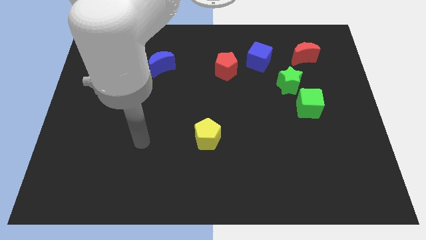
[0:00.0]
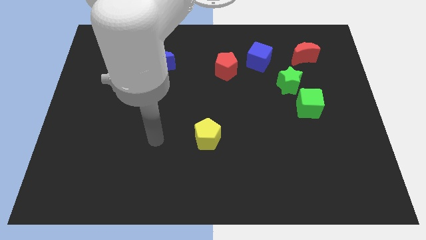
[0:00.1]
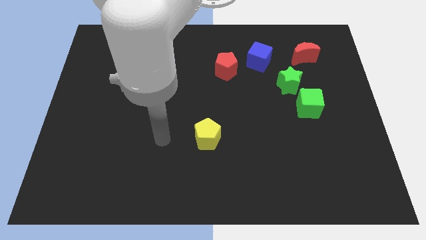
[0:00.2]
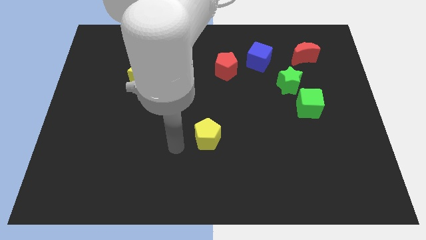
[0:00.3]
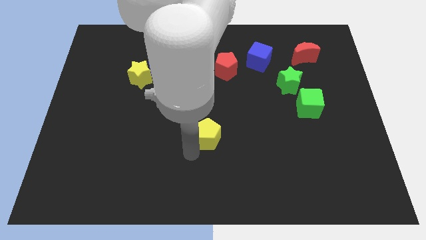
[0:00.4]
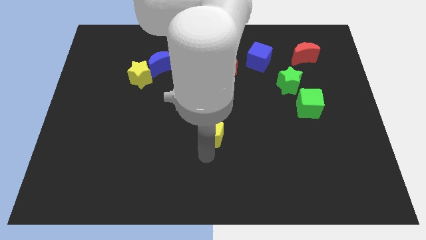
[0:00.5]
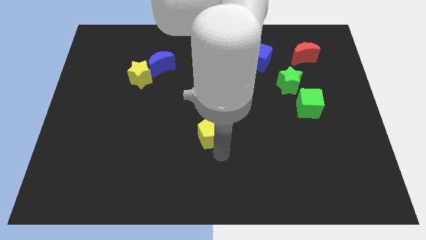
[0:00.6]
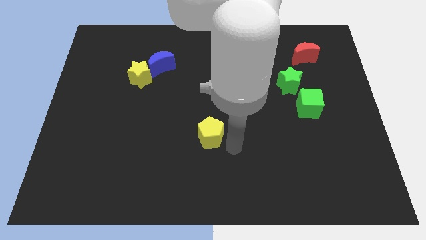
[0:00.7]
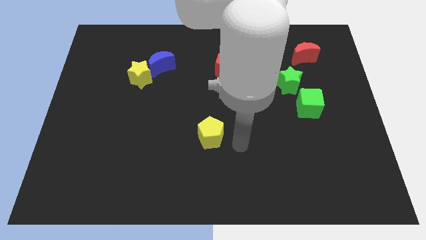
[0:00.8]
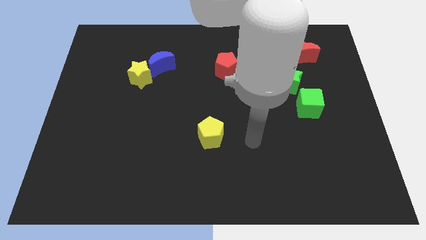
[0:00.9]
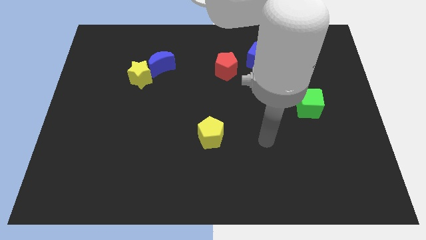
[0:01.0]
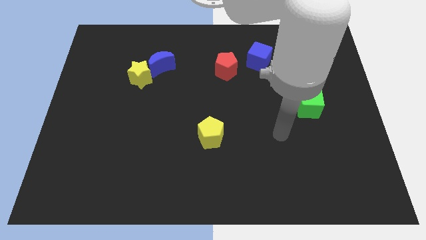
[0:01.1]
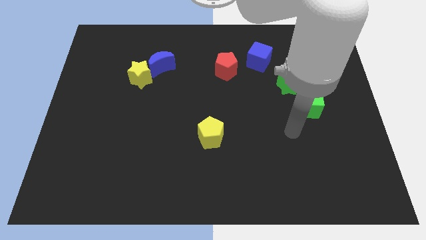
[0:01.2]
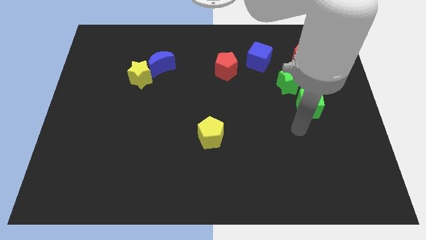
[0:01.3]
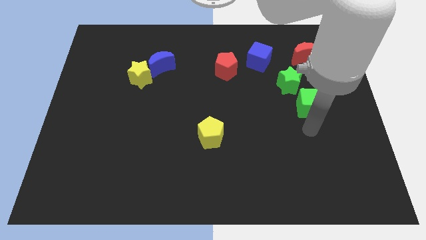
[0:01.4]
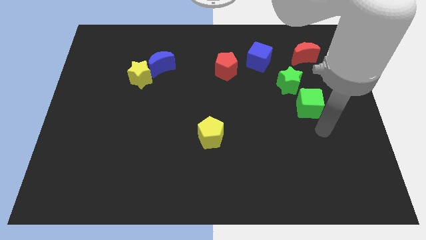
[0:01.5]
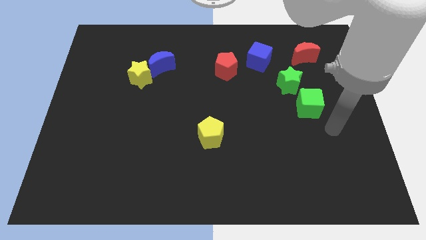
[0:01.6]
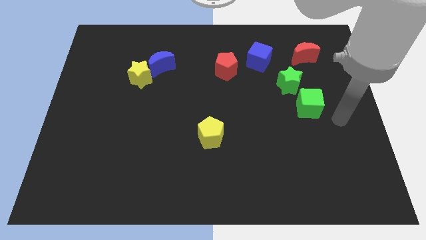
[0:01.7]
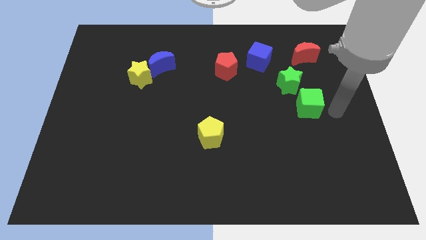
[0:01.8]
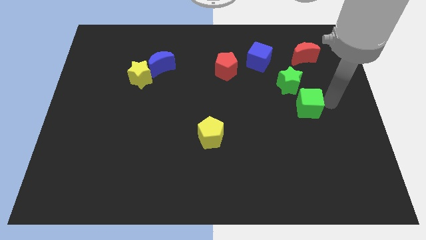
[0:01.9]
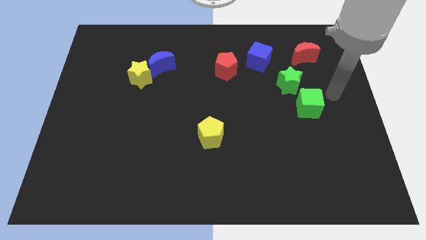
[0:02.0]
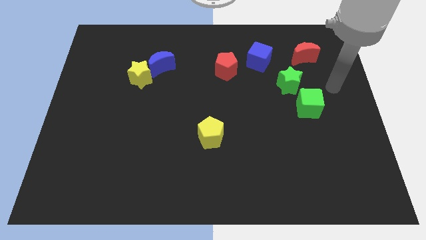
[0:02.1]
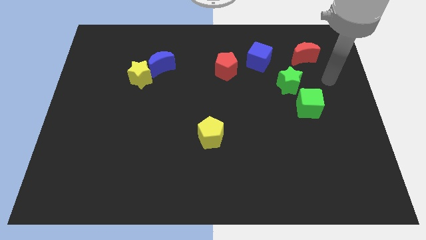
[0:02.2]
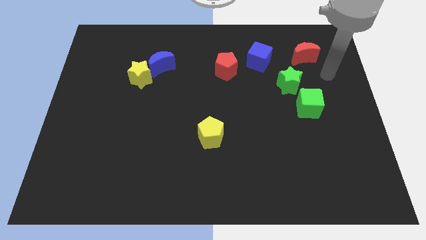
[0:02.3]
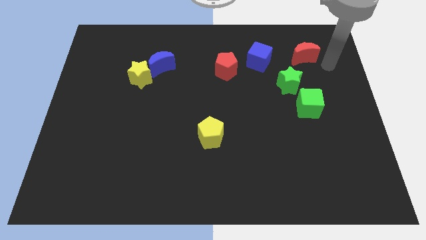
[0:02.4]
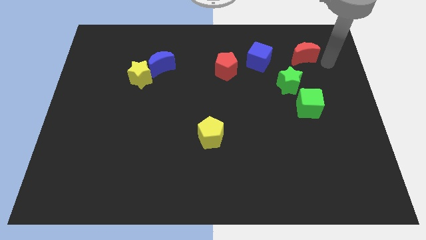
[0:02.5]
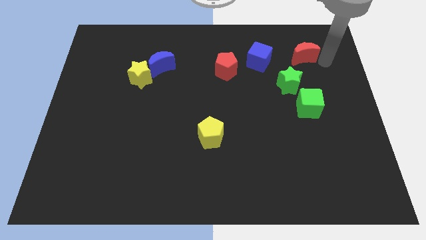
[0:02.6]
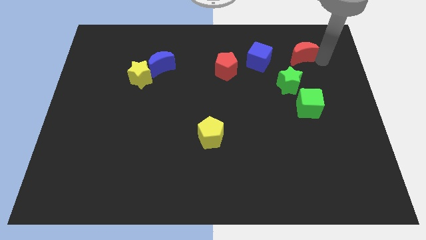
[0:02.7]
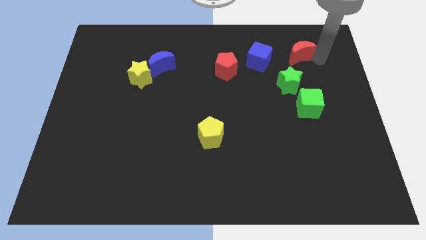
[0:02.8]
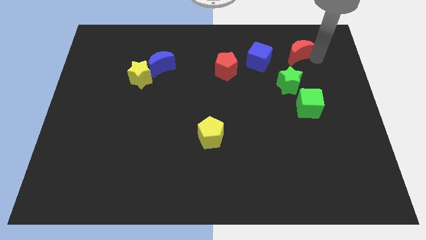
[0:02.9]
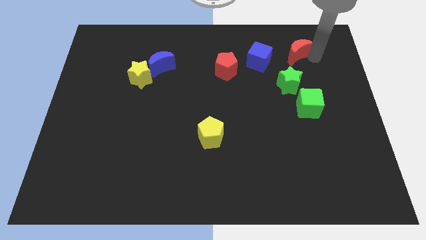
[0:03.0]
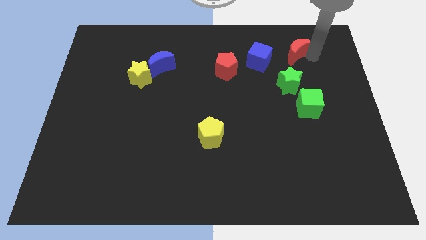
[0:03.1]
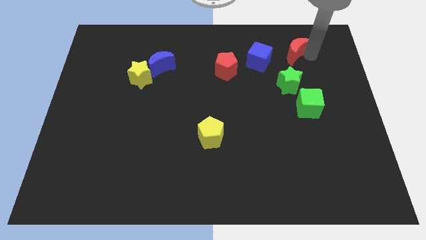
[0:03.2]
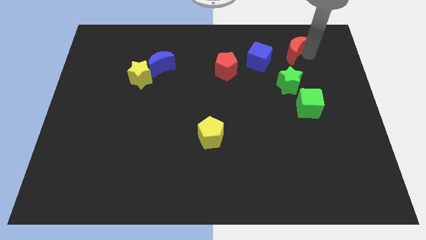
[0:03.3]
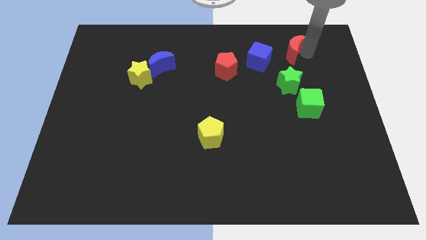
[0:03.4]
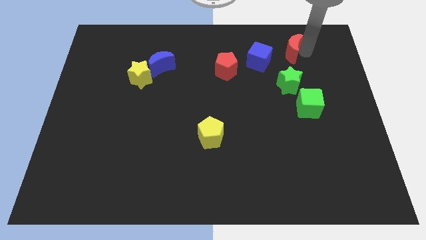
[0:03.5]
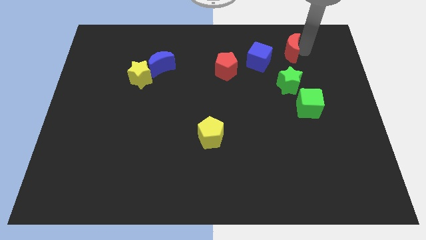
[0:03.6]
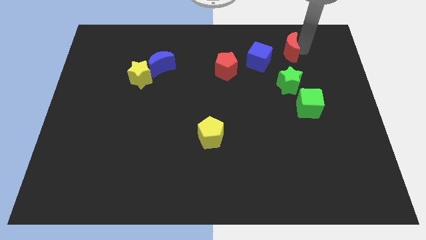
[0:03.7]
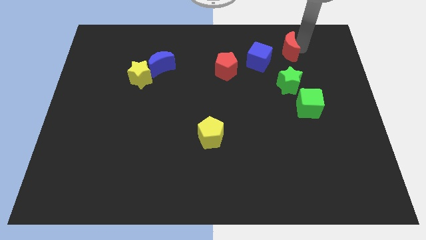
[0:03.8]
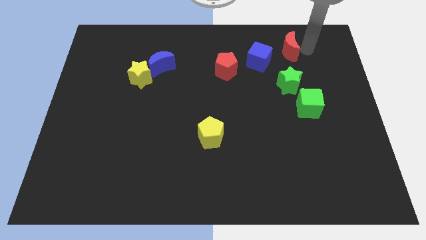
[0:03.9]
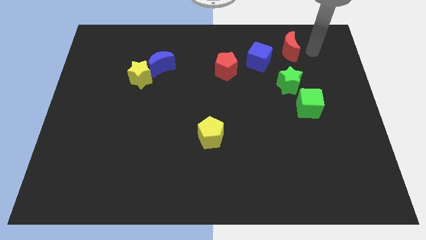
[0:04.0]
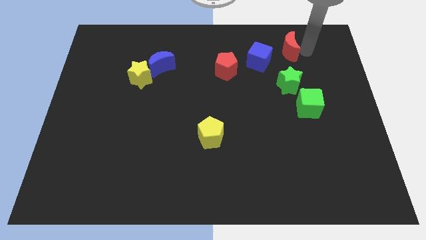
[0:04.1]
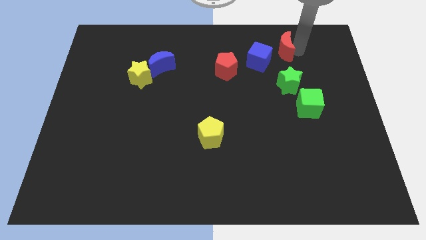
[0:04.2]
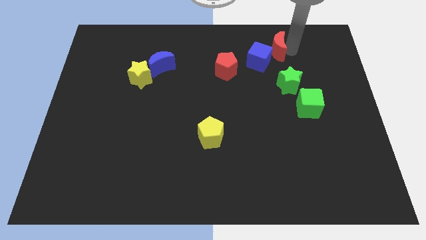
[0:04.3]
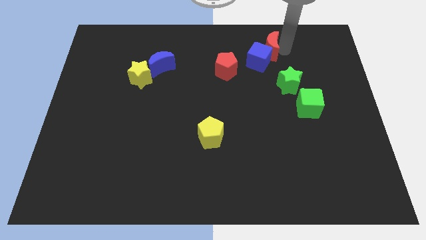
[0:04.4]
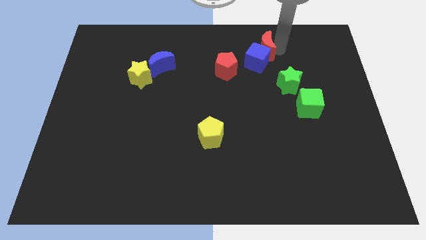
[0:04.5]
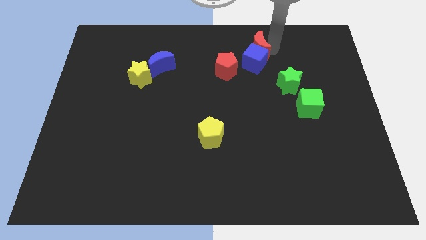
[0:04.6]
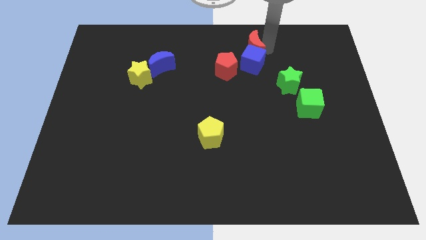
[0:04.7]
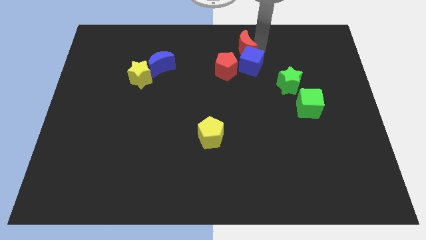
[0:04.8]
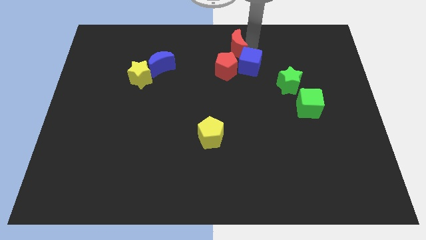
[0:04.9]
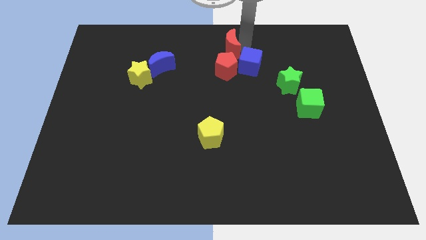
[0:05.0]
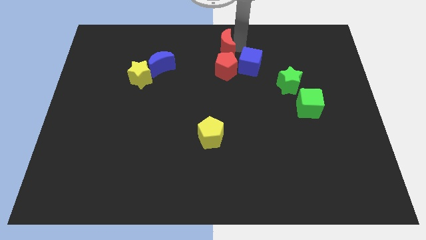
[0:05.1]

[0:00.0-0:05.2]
move the red moon to the left

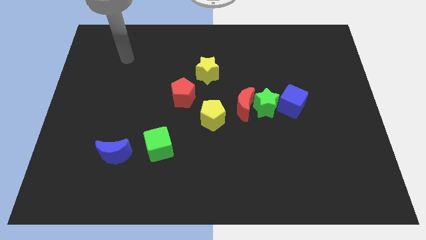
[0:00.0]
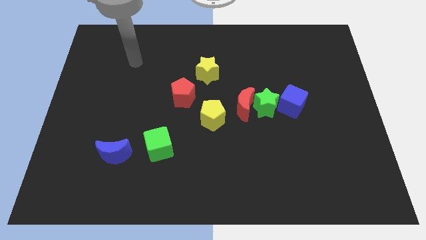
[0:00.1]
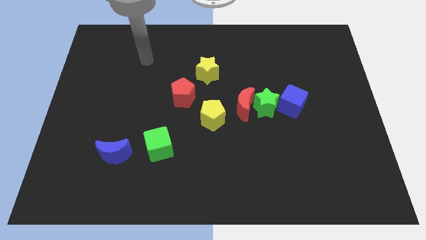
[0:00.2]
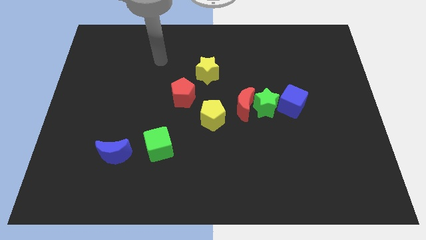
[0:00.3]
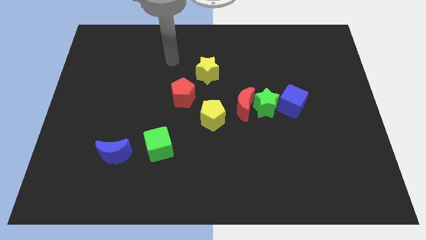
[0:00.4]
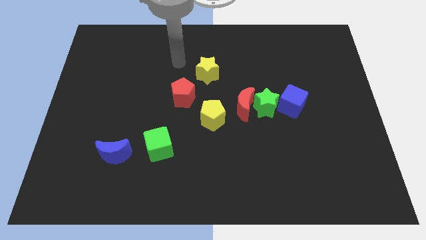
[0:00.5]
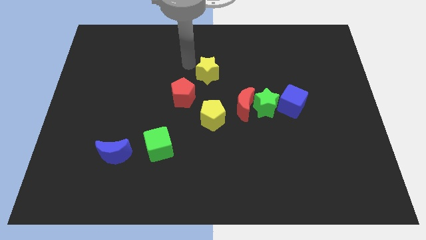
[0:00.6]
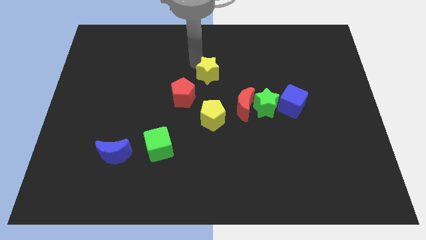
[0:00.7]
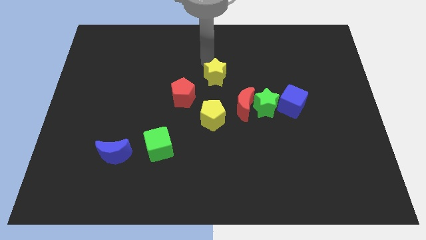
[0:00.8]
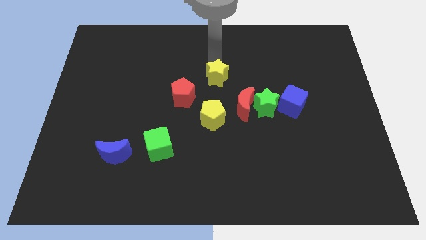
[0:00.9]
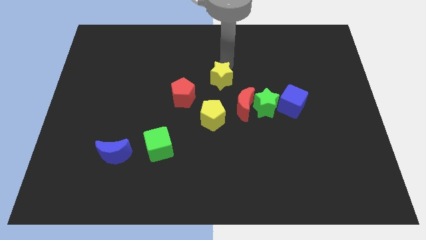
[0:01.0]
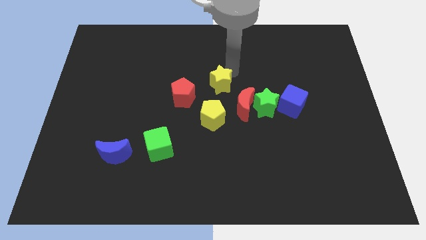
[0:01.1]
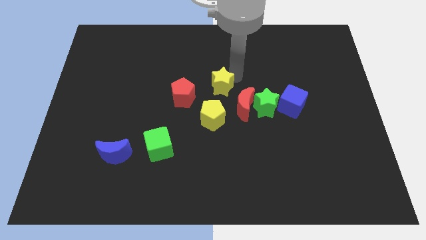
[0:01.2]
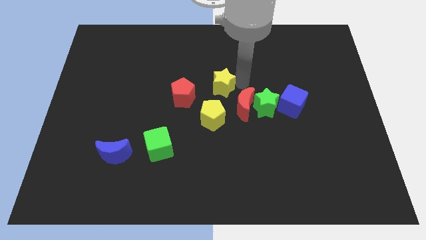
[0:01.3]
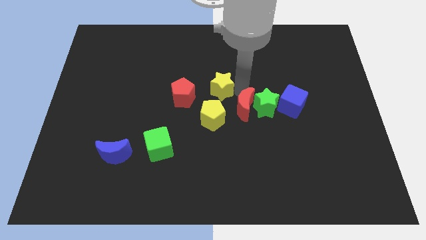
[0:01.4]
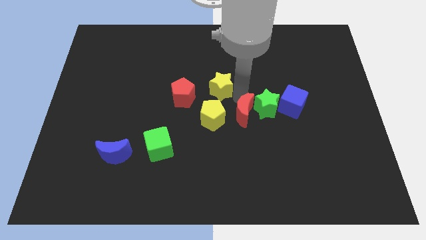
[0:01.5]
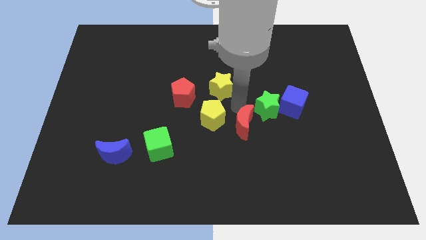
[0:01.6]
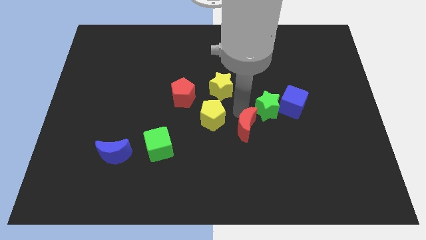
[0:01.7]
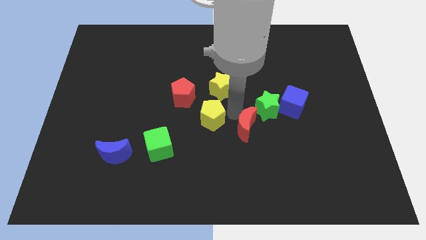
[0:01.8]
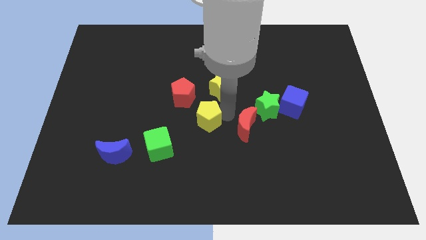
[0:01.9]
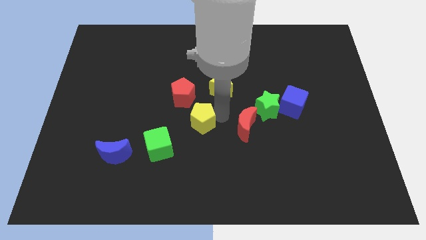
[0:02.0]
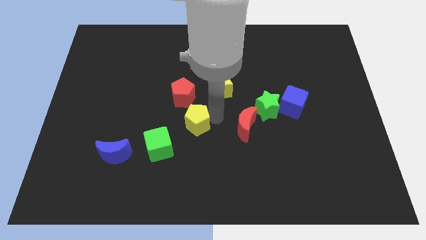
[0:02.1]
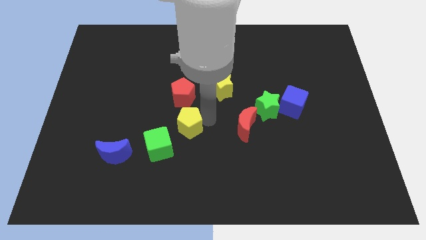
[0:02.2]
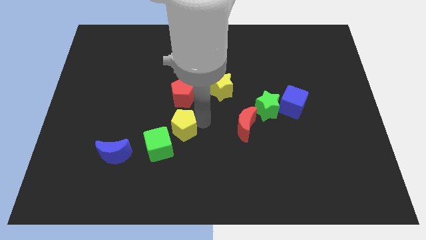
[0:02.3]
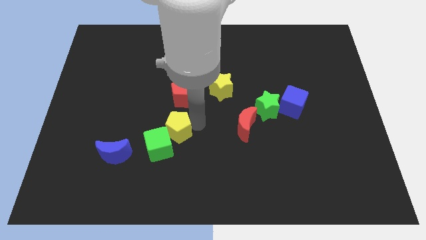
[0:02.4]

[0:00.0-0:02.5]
slightly move the yellow pentagon to the left

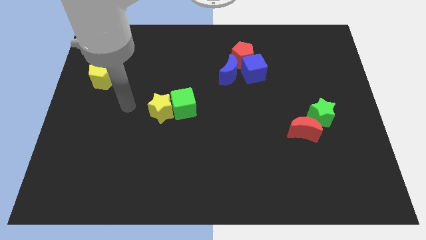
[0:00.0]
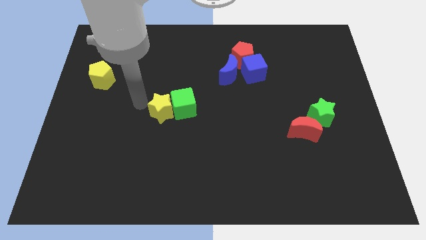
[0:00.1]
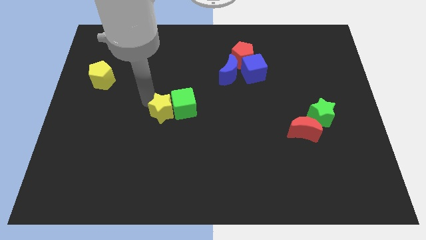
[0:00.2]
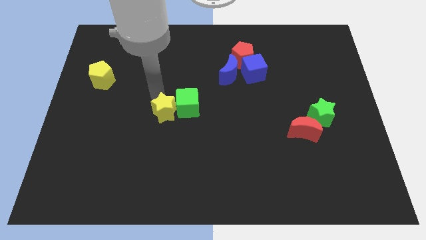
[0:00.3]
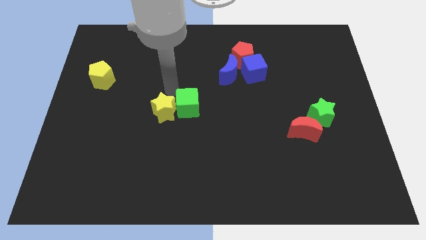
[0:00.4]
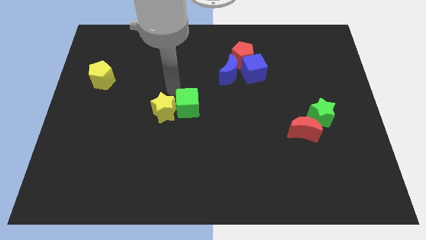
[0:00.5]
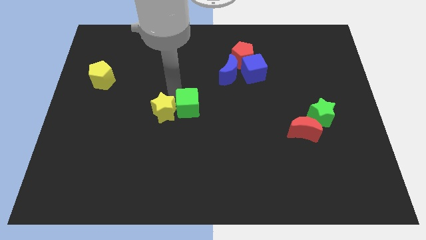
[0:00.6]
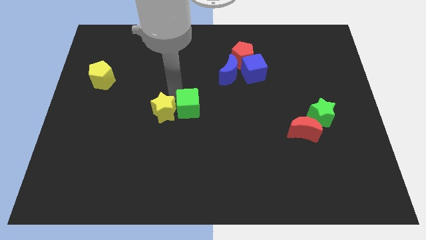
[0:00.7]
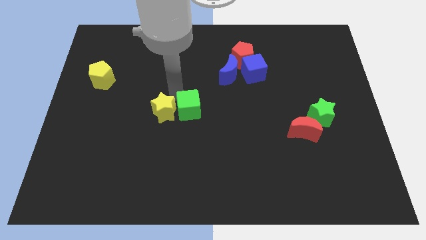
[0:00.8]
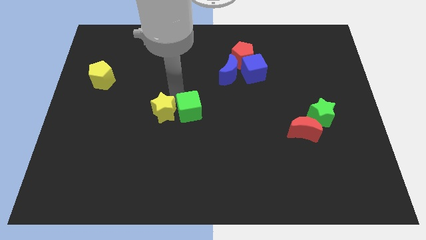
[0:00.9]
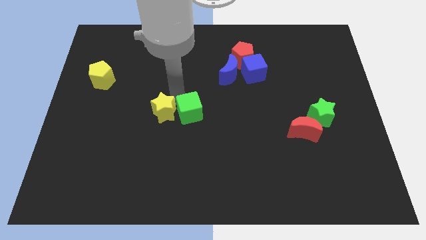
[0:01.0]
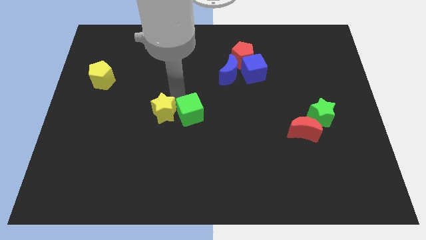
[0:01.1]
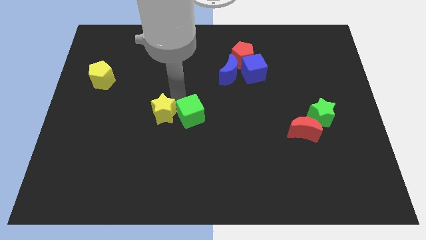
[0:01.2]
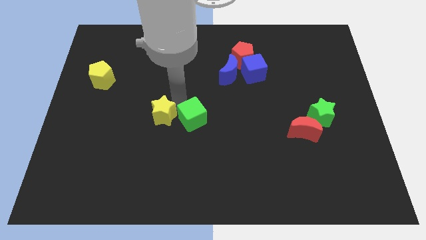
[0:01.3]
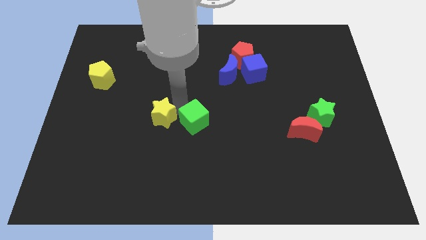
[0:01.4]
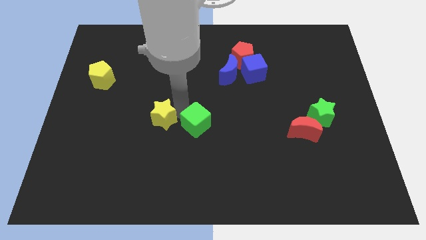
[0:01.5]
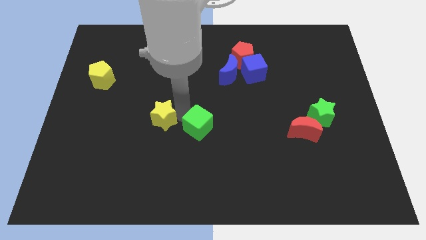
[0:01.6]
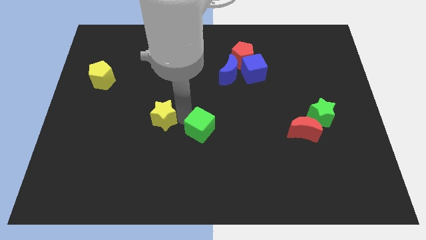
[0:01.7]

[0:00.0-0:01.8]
slide the green cube down and to the right a bit
